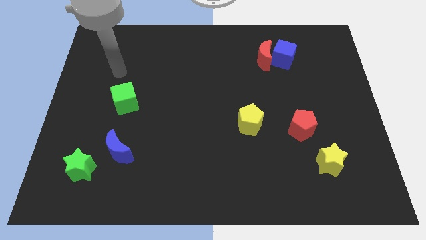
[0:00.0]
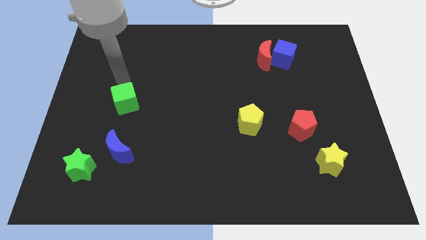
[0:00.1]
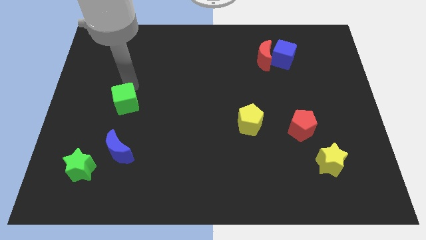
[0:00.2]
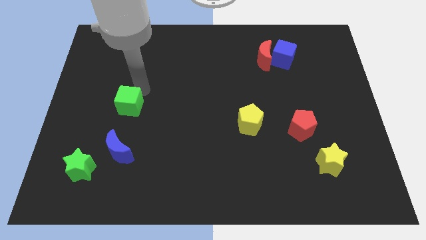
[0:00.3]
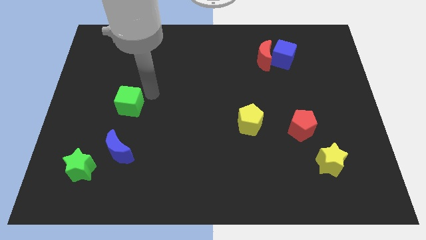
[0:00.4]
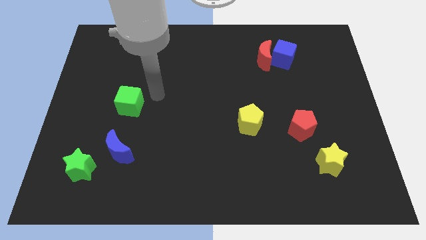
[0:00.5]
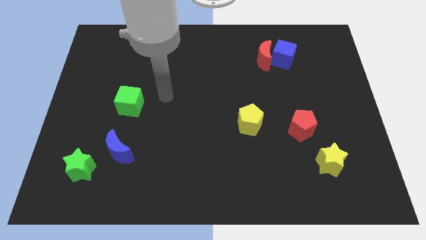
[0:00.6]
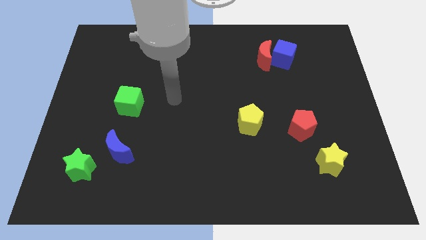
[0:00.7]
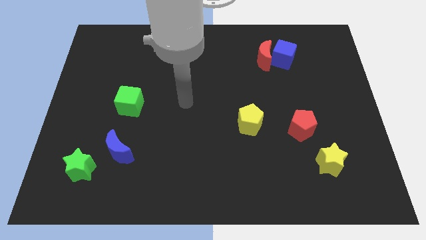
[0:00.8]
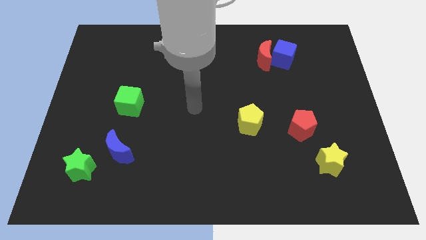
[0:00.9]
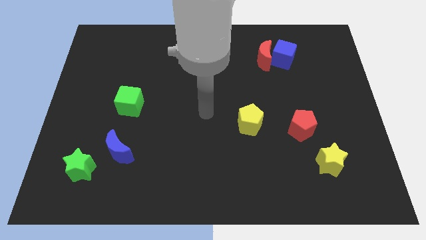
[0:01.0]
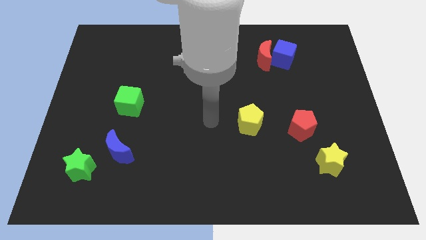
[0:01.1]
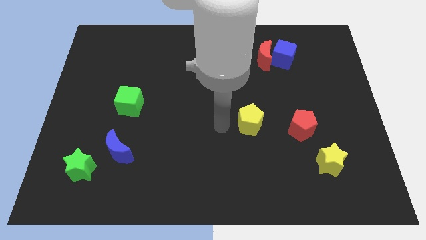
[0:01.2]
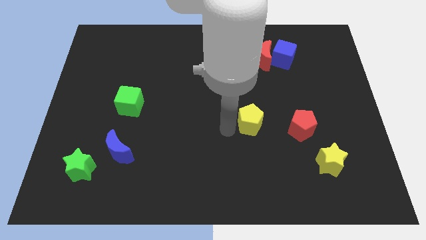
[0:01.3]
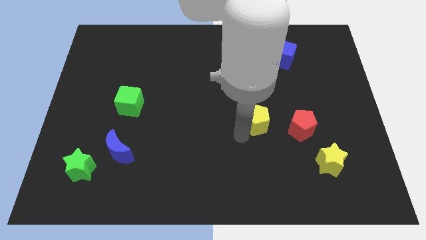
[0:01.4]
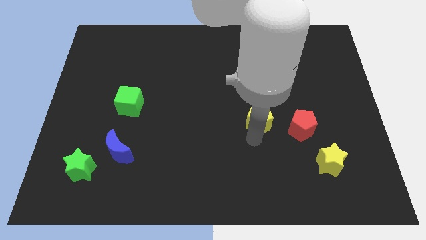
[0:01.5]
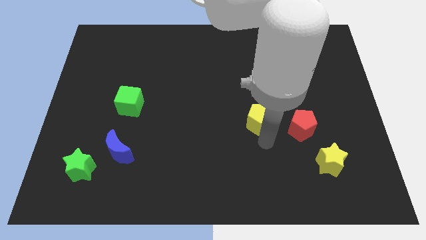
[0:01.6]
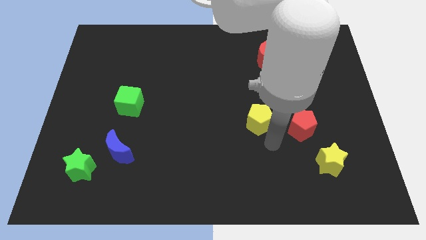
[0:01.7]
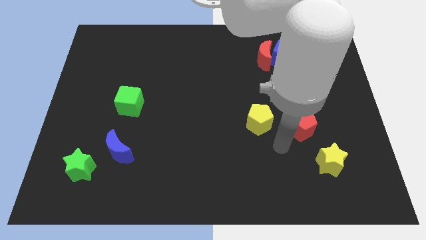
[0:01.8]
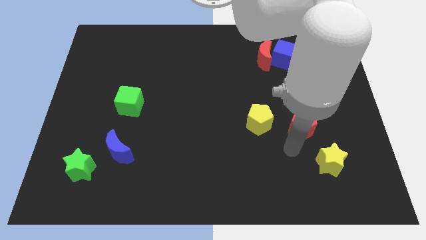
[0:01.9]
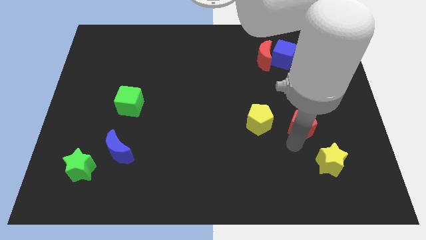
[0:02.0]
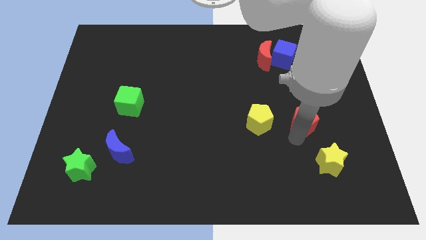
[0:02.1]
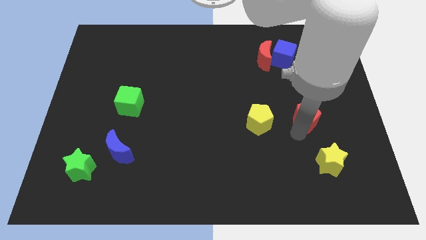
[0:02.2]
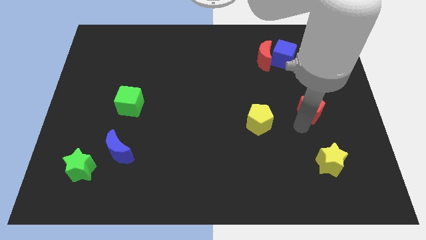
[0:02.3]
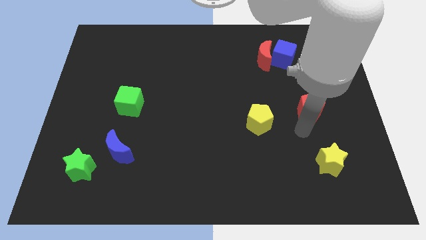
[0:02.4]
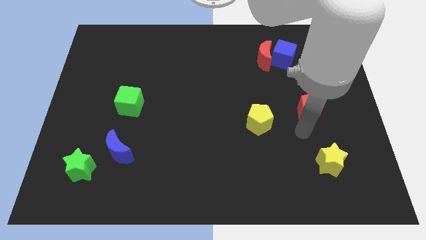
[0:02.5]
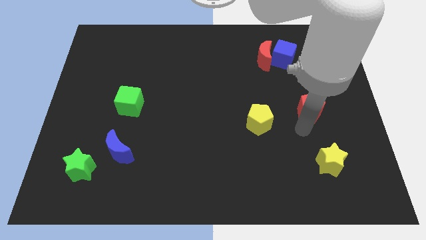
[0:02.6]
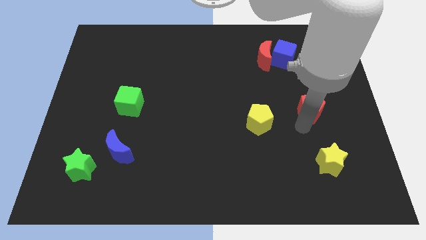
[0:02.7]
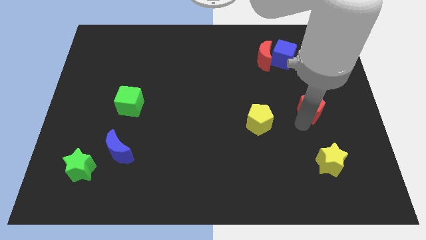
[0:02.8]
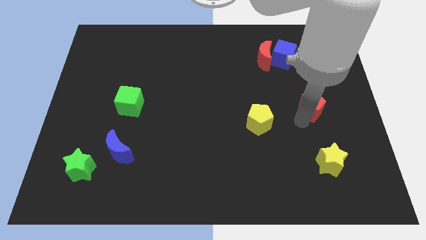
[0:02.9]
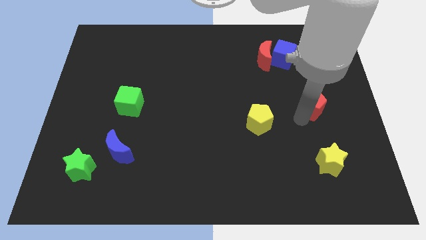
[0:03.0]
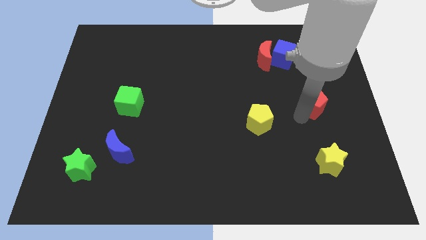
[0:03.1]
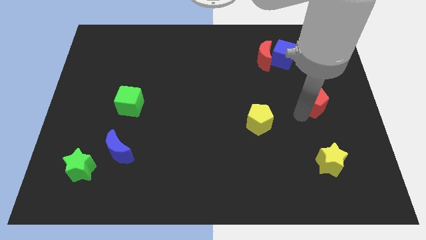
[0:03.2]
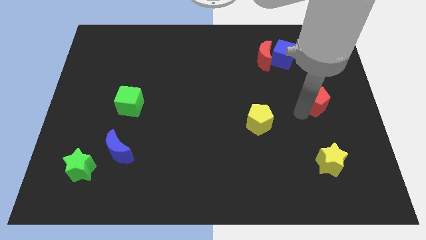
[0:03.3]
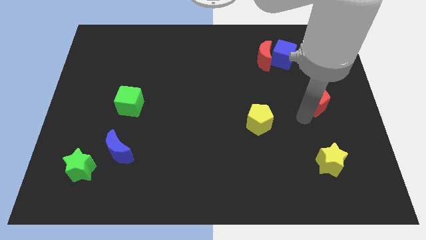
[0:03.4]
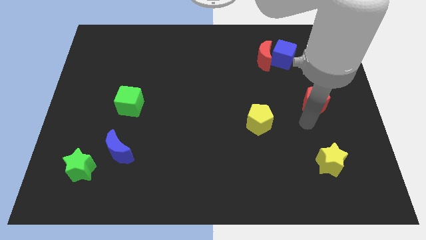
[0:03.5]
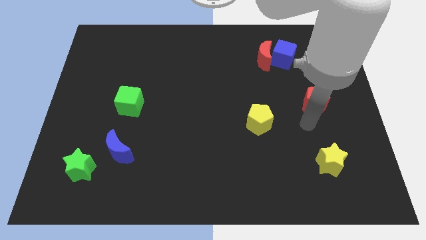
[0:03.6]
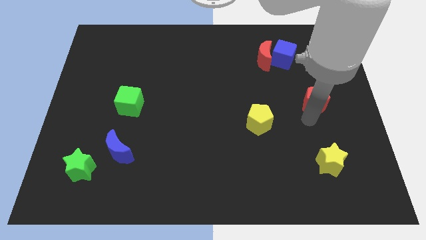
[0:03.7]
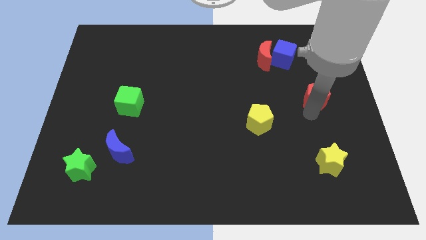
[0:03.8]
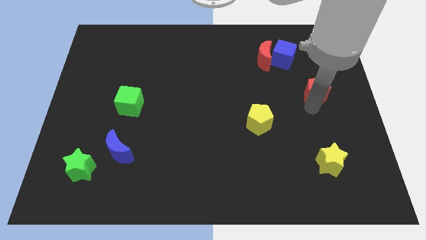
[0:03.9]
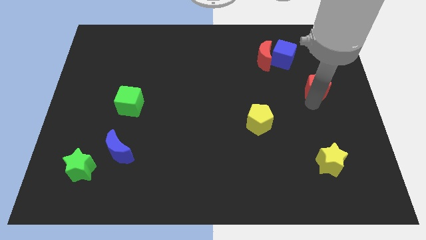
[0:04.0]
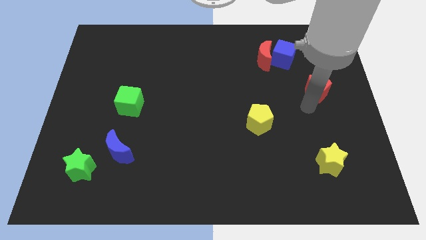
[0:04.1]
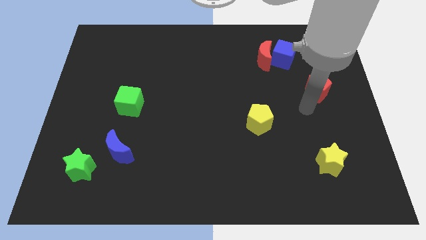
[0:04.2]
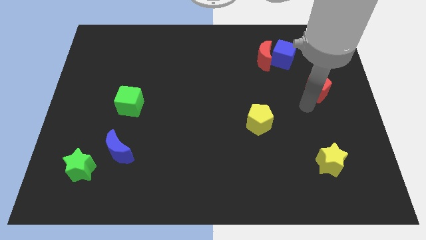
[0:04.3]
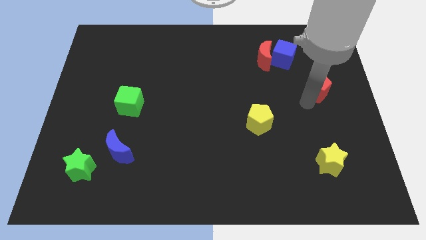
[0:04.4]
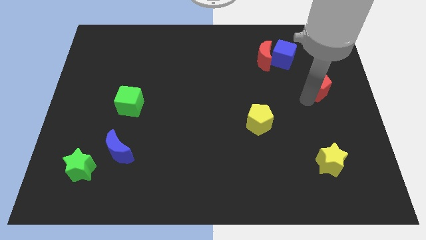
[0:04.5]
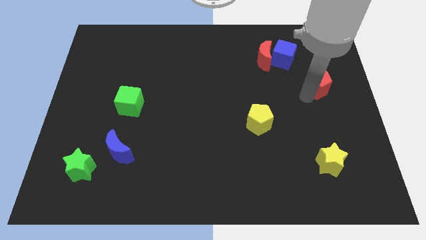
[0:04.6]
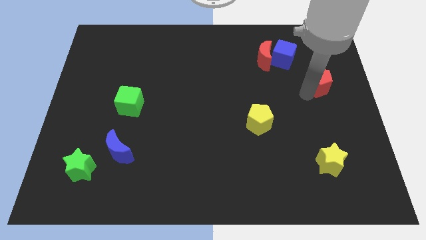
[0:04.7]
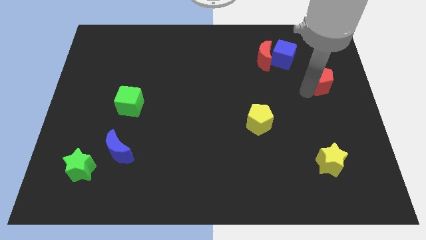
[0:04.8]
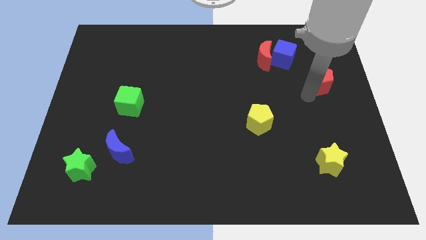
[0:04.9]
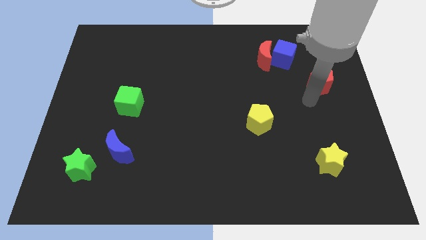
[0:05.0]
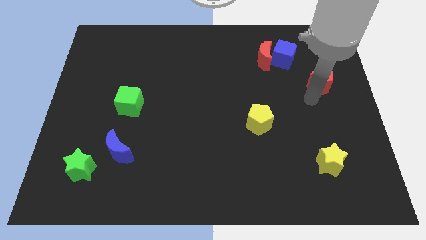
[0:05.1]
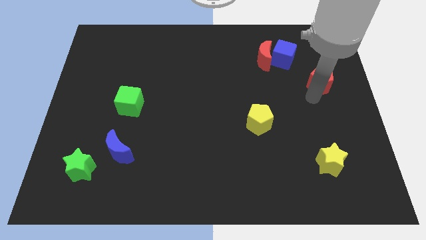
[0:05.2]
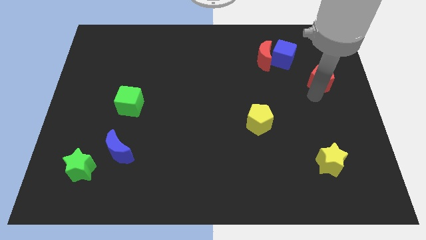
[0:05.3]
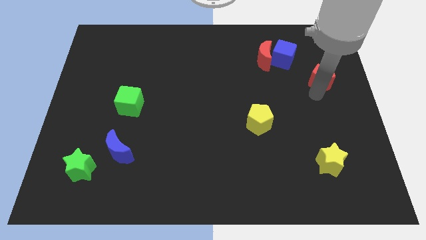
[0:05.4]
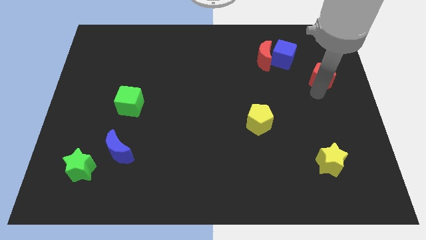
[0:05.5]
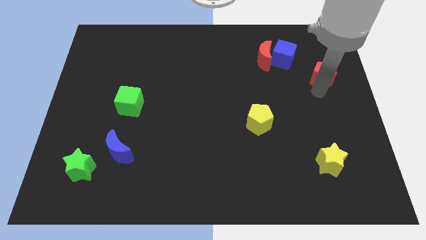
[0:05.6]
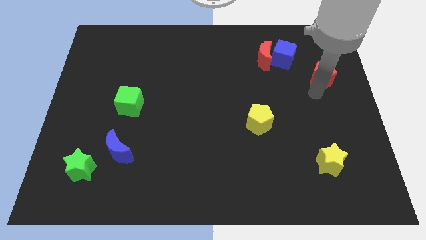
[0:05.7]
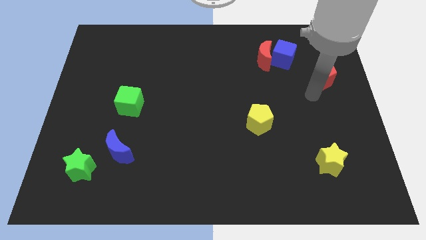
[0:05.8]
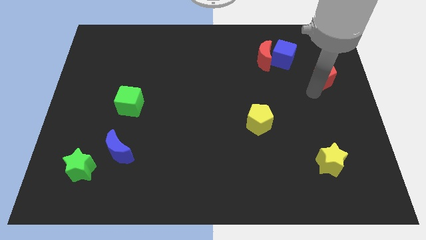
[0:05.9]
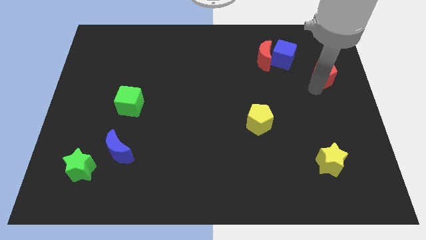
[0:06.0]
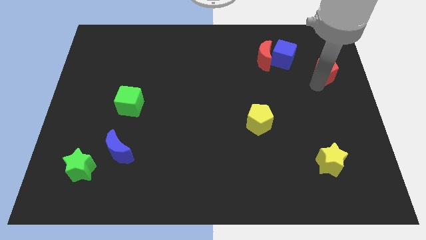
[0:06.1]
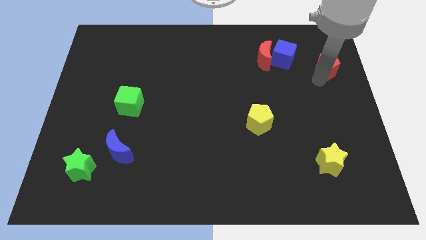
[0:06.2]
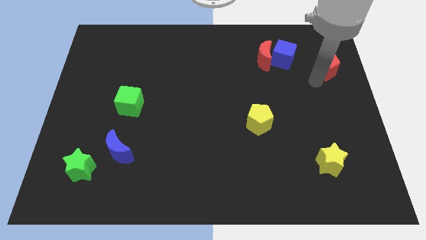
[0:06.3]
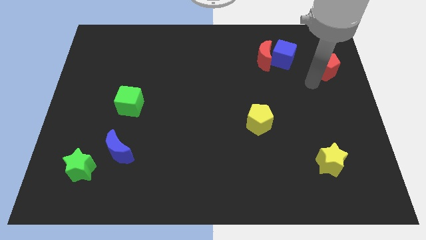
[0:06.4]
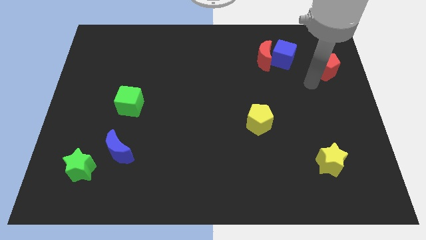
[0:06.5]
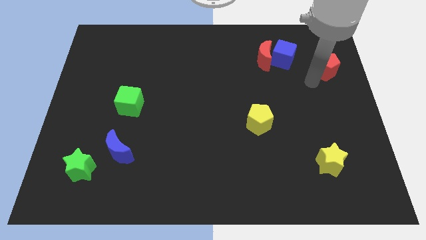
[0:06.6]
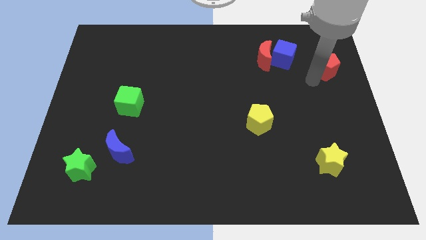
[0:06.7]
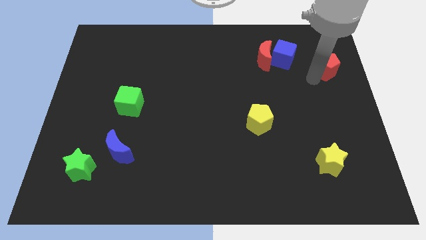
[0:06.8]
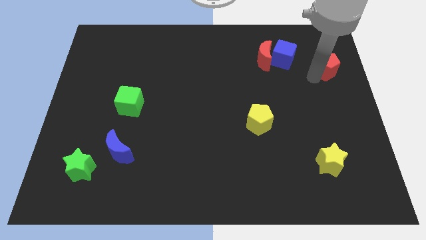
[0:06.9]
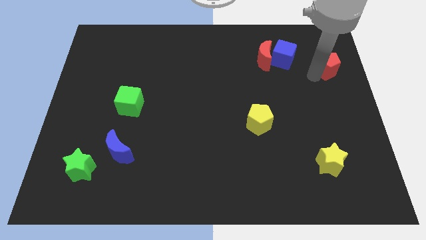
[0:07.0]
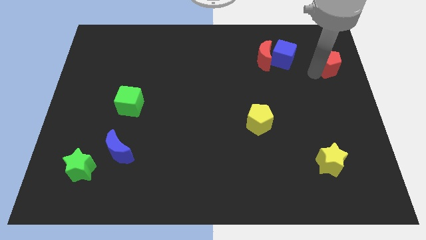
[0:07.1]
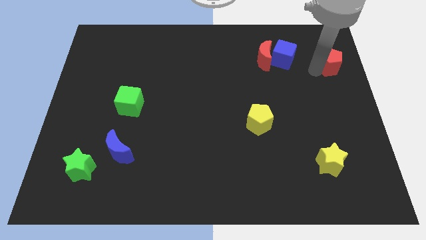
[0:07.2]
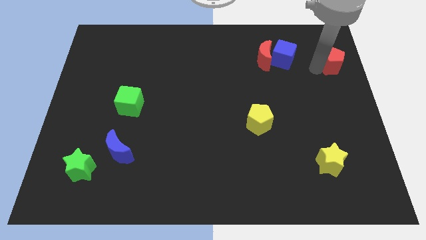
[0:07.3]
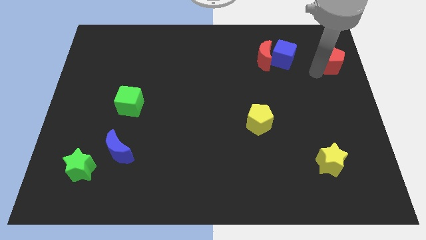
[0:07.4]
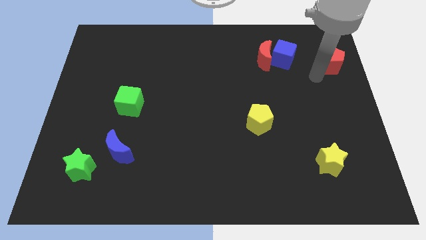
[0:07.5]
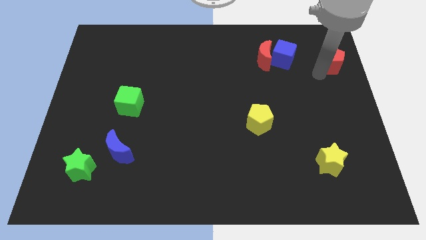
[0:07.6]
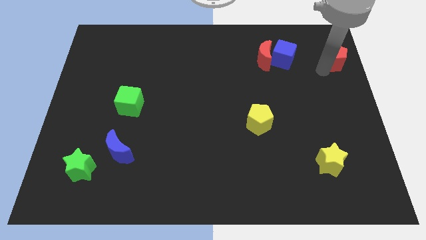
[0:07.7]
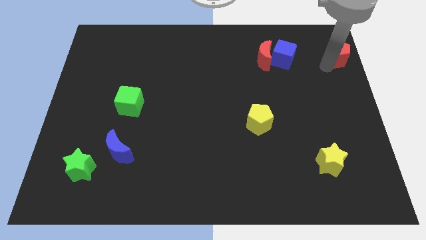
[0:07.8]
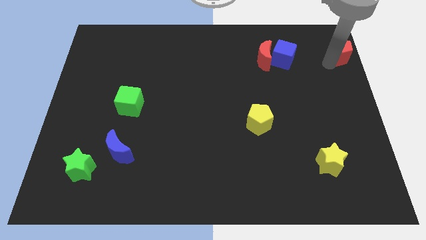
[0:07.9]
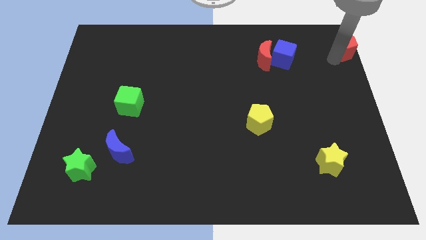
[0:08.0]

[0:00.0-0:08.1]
push the red pentagon to the upper right corner
